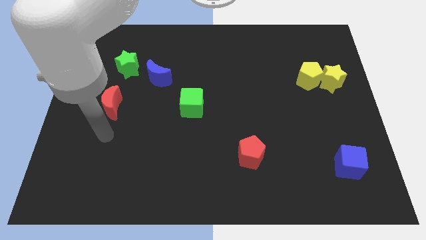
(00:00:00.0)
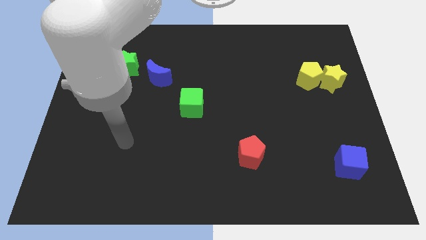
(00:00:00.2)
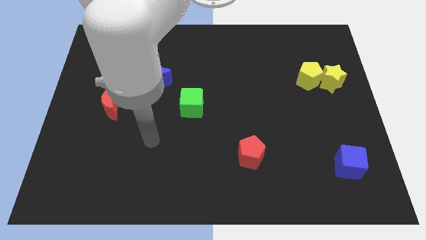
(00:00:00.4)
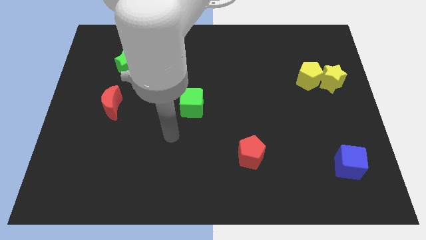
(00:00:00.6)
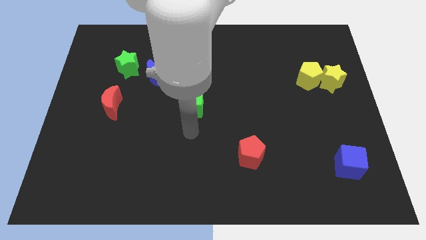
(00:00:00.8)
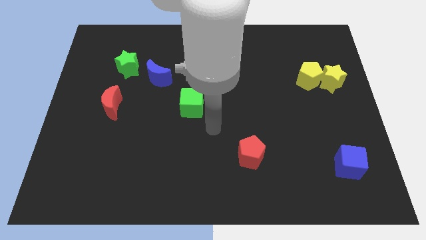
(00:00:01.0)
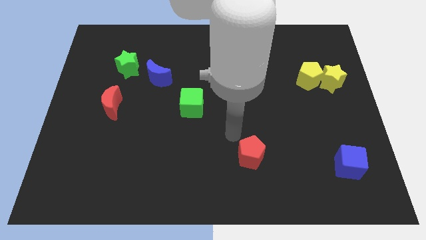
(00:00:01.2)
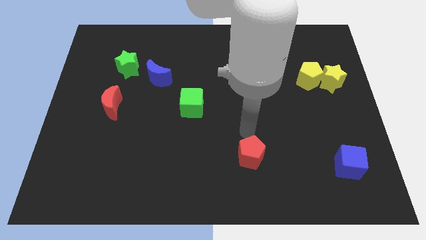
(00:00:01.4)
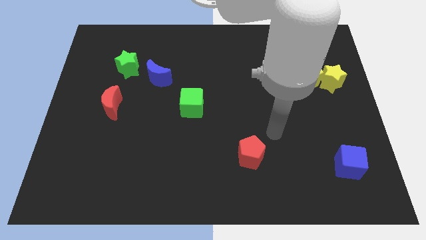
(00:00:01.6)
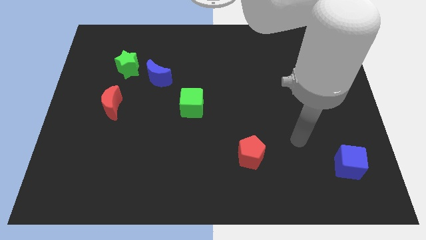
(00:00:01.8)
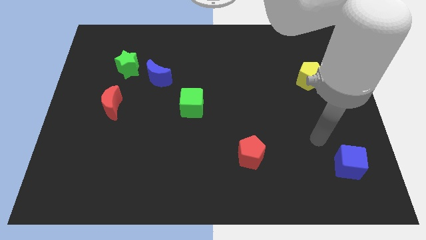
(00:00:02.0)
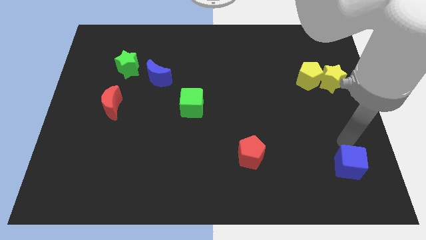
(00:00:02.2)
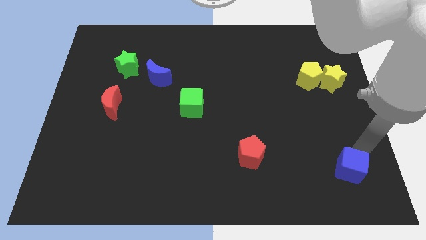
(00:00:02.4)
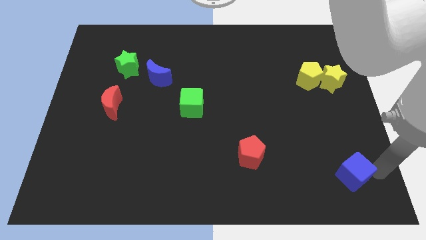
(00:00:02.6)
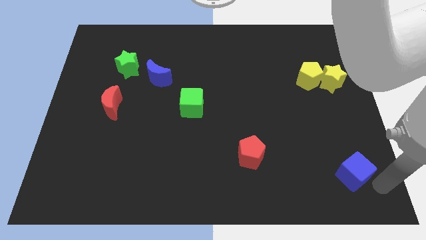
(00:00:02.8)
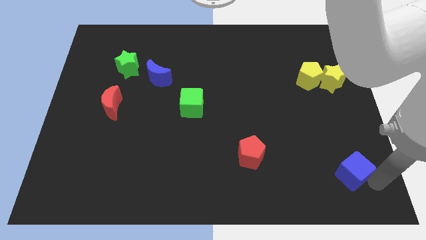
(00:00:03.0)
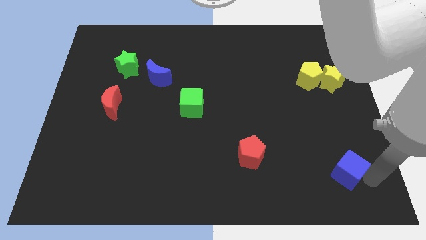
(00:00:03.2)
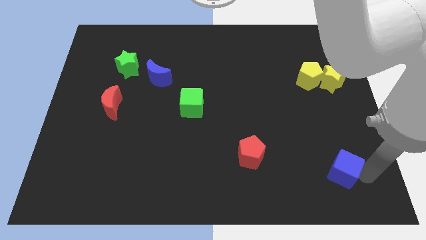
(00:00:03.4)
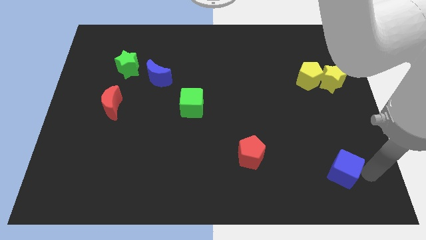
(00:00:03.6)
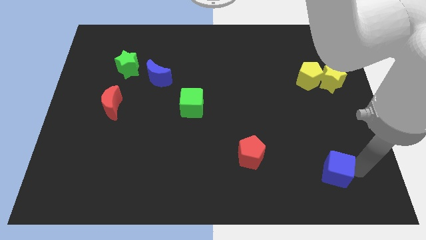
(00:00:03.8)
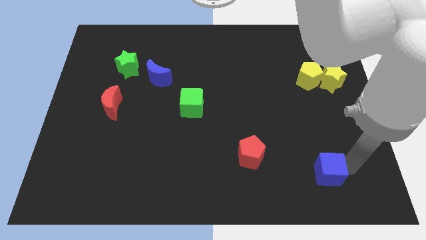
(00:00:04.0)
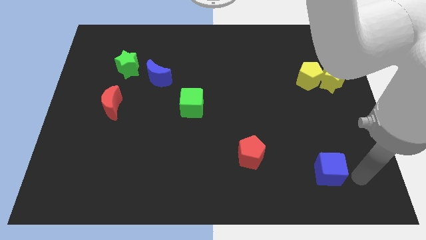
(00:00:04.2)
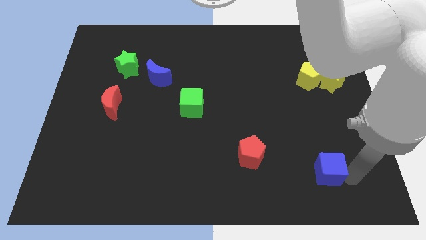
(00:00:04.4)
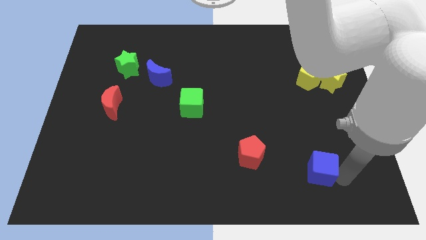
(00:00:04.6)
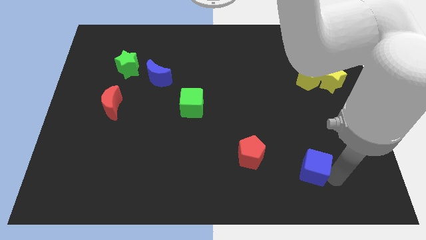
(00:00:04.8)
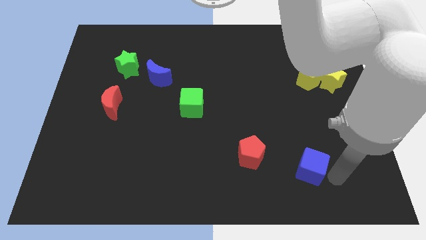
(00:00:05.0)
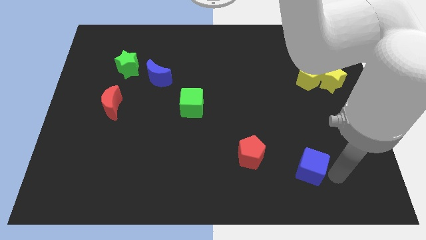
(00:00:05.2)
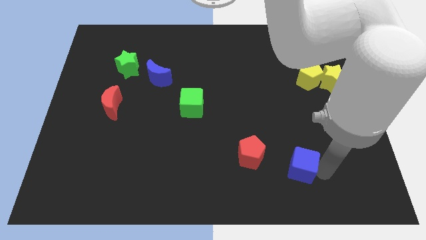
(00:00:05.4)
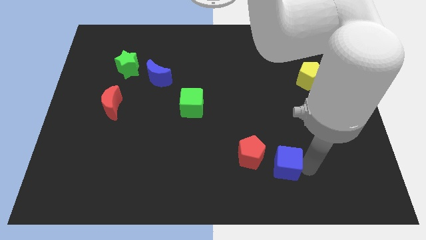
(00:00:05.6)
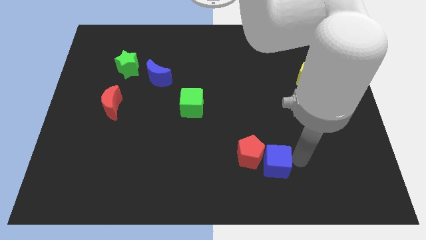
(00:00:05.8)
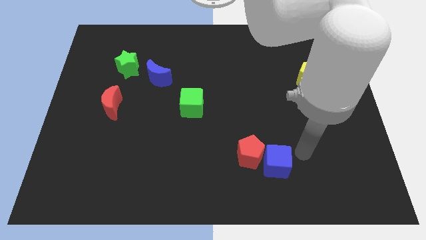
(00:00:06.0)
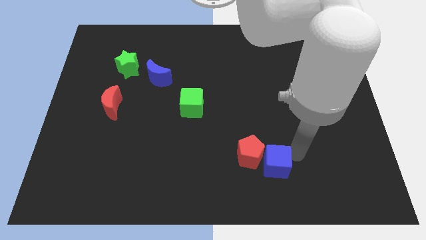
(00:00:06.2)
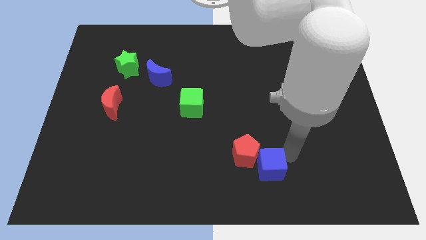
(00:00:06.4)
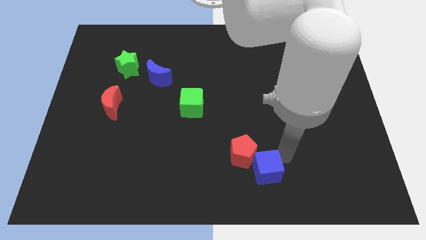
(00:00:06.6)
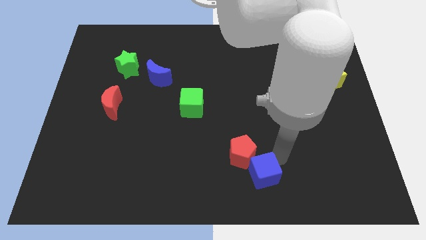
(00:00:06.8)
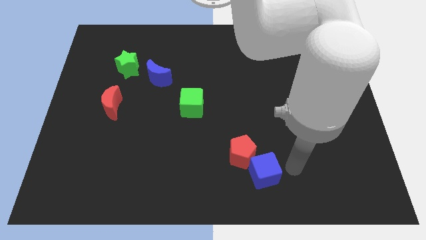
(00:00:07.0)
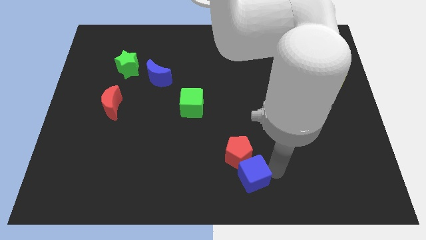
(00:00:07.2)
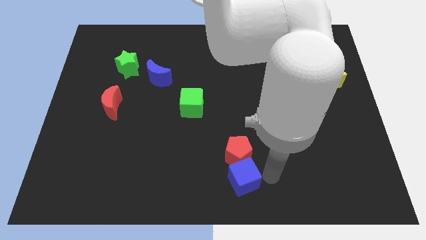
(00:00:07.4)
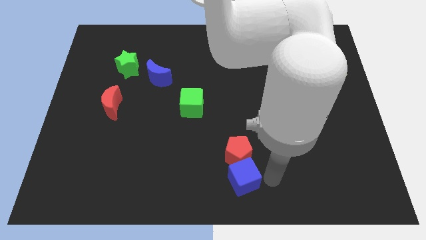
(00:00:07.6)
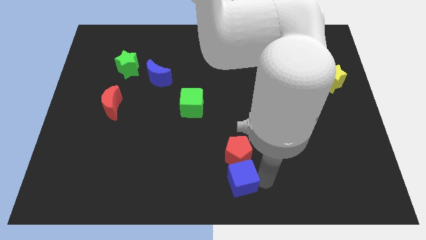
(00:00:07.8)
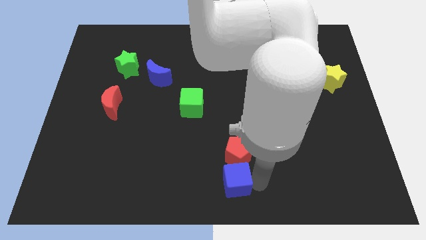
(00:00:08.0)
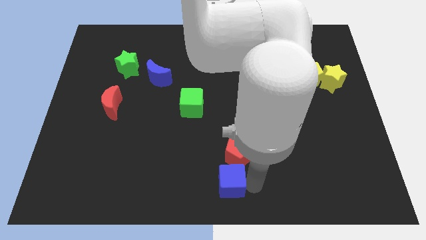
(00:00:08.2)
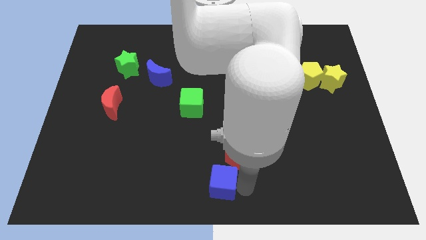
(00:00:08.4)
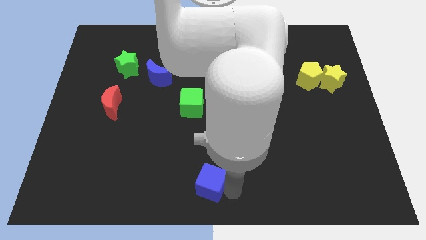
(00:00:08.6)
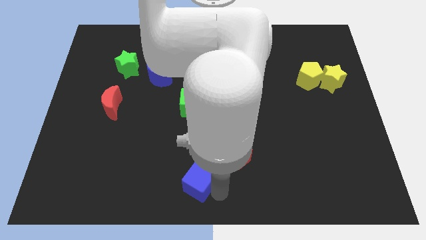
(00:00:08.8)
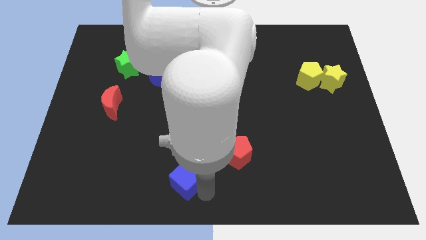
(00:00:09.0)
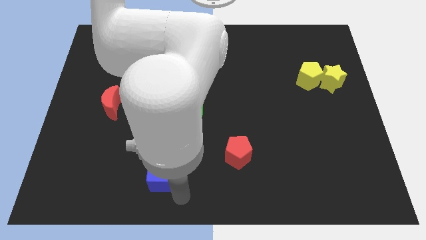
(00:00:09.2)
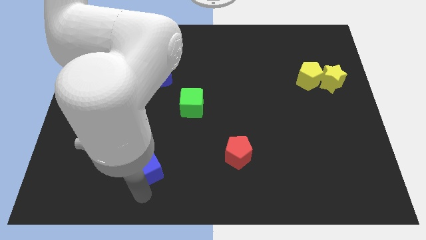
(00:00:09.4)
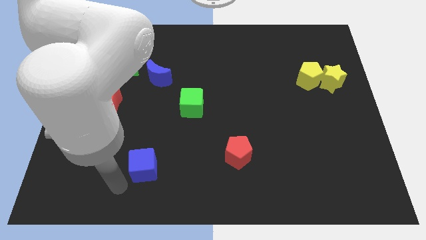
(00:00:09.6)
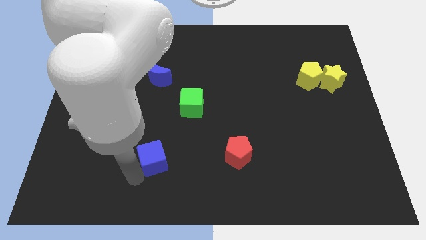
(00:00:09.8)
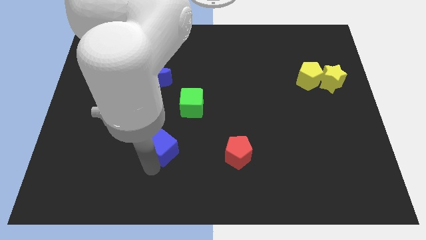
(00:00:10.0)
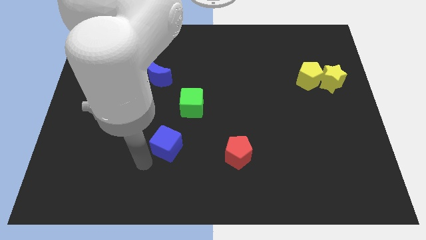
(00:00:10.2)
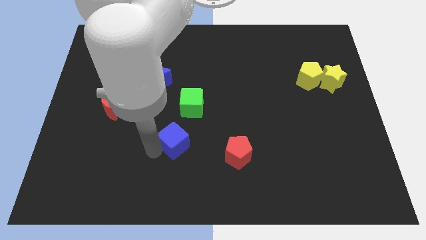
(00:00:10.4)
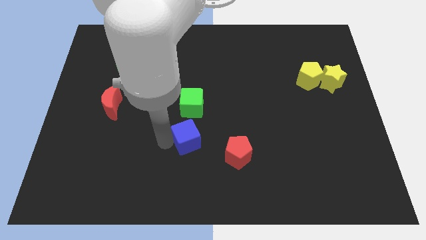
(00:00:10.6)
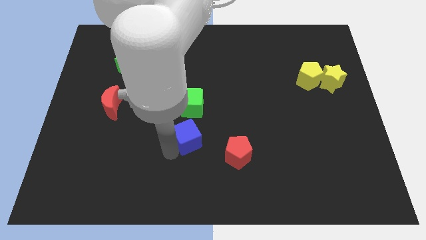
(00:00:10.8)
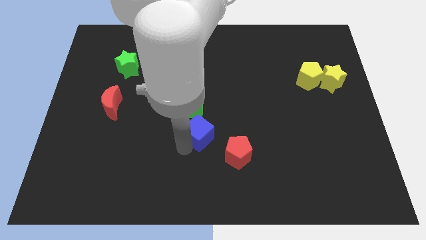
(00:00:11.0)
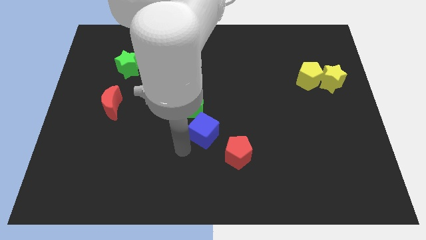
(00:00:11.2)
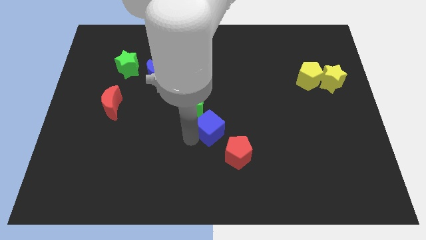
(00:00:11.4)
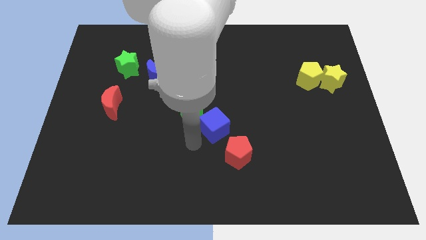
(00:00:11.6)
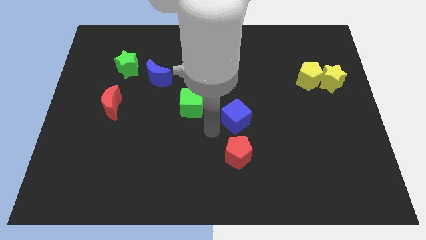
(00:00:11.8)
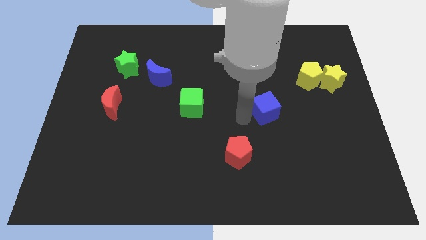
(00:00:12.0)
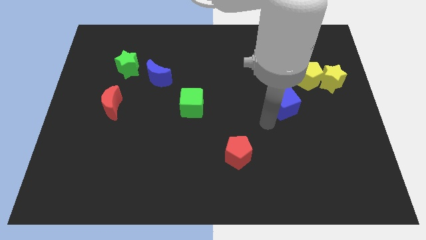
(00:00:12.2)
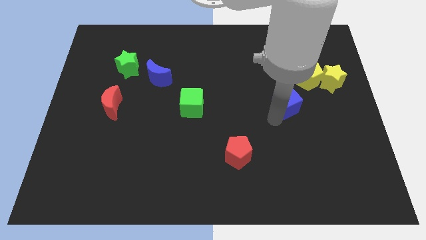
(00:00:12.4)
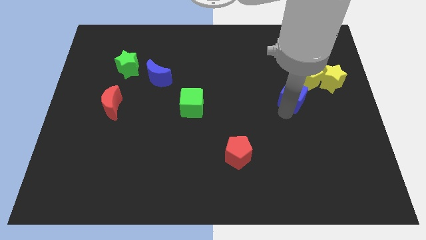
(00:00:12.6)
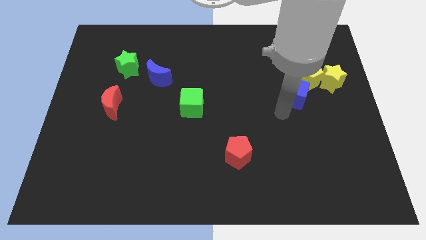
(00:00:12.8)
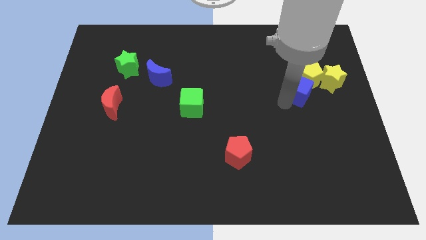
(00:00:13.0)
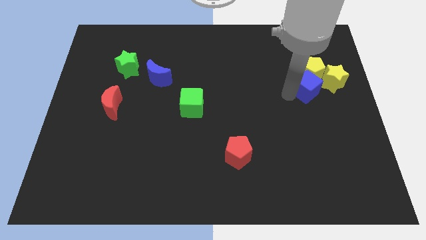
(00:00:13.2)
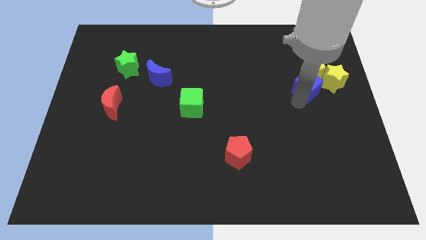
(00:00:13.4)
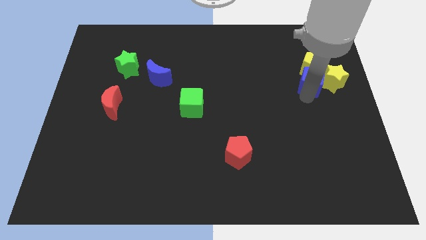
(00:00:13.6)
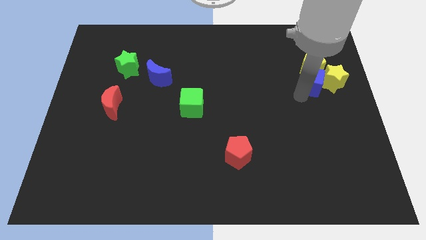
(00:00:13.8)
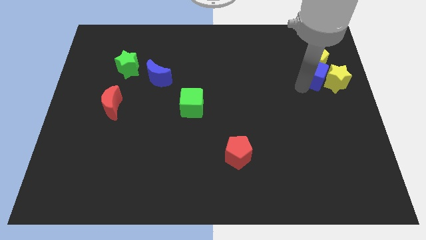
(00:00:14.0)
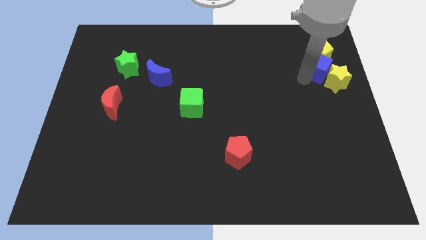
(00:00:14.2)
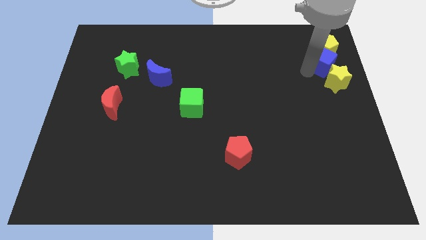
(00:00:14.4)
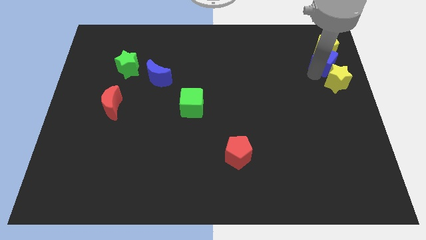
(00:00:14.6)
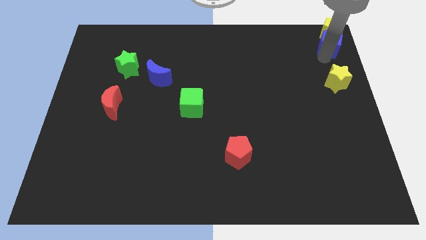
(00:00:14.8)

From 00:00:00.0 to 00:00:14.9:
put the blue cube to the top right
